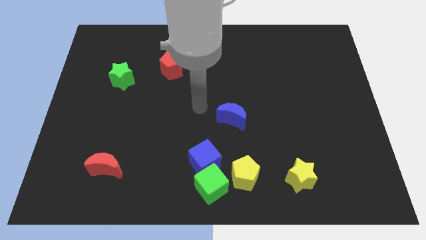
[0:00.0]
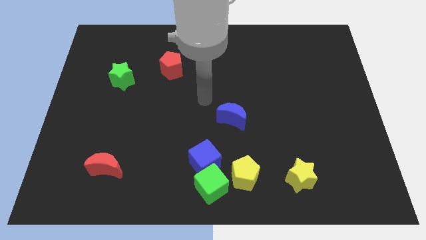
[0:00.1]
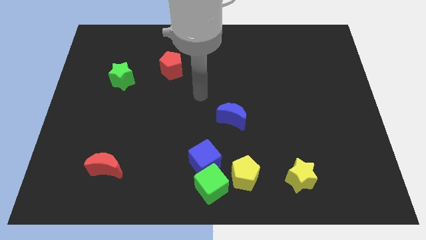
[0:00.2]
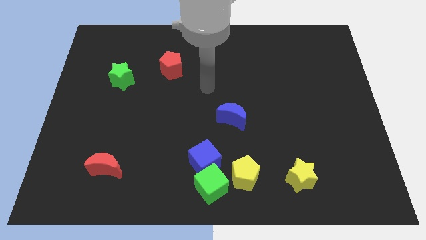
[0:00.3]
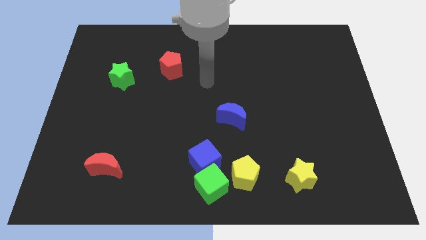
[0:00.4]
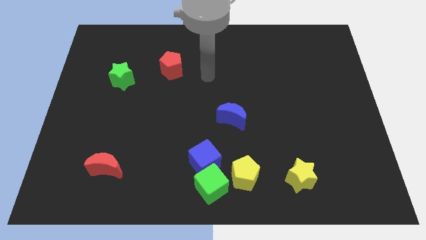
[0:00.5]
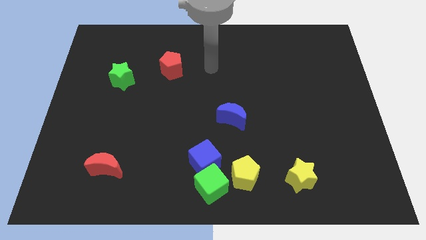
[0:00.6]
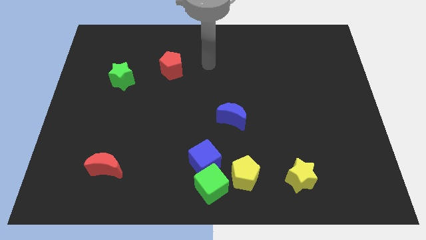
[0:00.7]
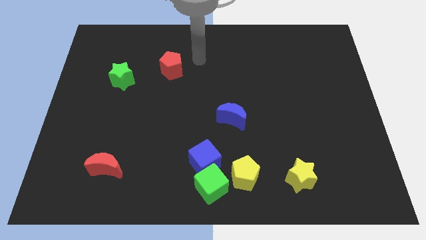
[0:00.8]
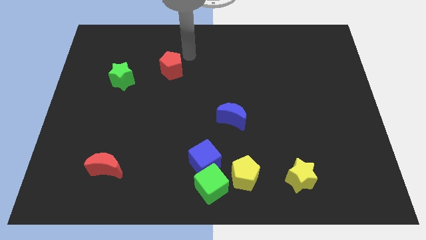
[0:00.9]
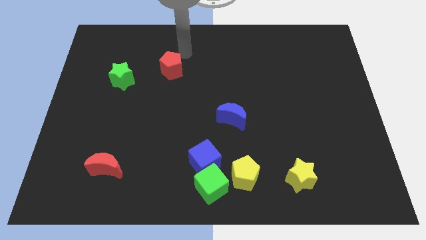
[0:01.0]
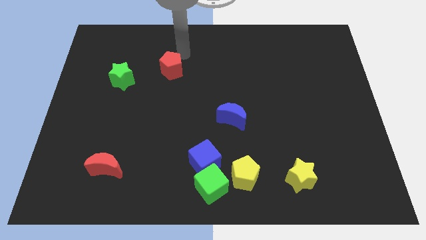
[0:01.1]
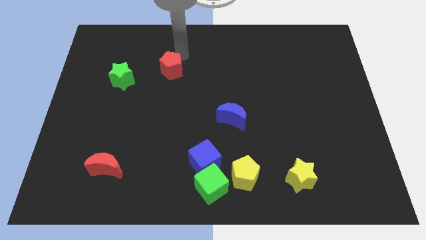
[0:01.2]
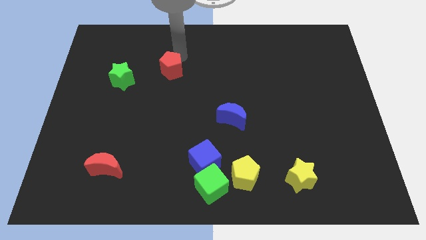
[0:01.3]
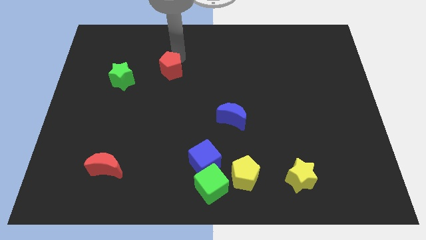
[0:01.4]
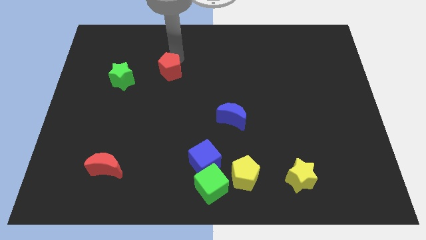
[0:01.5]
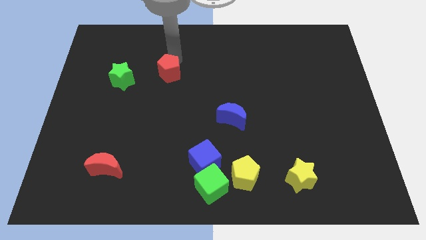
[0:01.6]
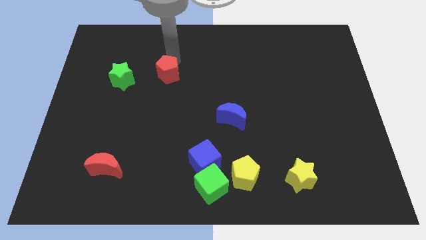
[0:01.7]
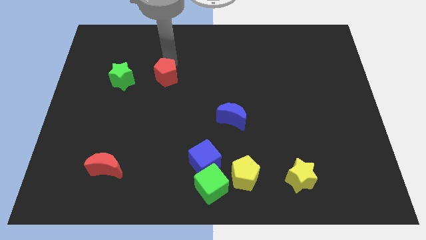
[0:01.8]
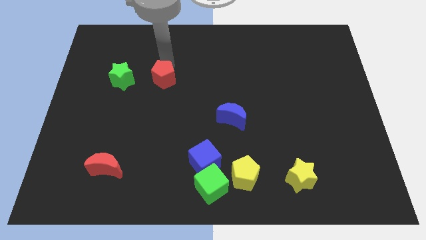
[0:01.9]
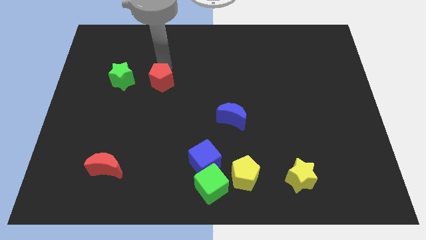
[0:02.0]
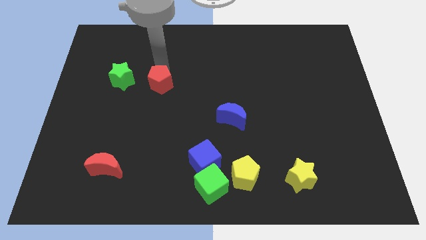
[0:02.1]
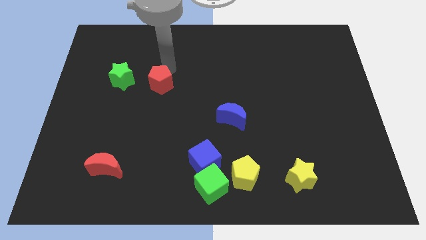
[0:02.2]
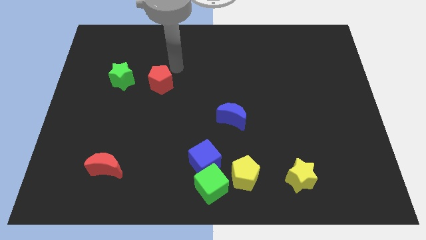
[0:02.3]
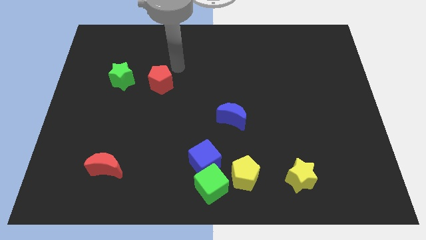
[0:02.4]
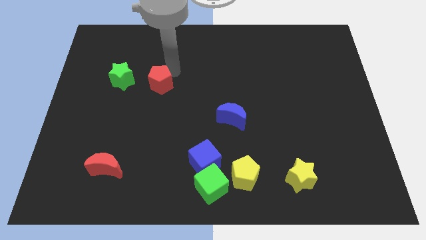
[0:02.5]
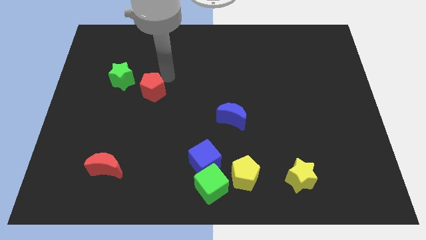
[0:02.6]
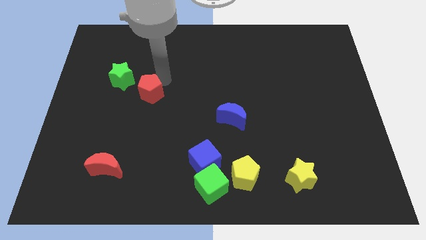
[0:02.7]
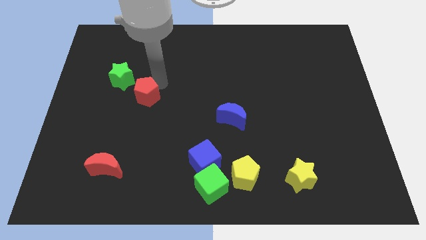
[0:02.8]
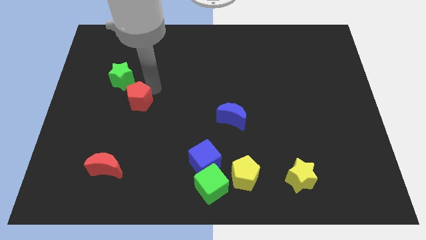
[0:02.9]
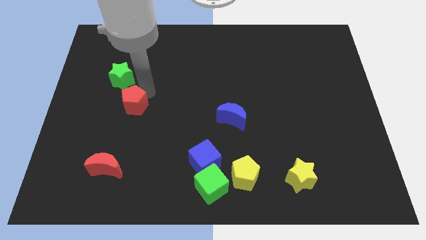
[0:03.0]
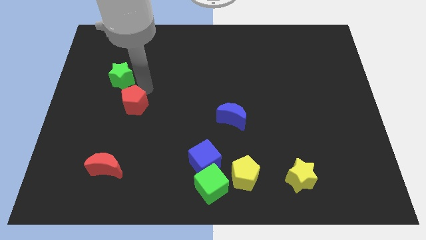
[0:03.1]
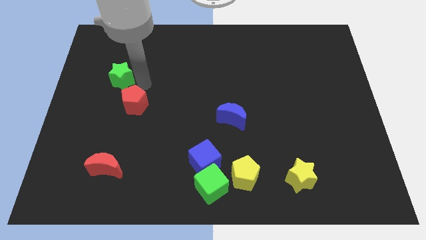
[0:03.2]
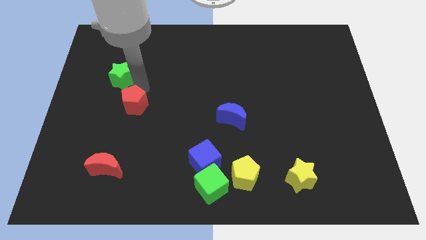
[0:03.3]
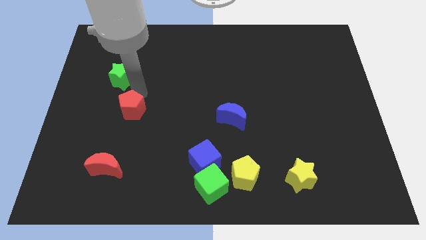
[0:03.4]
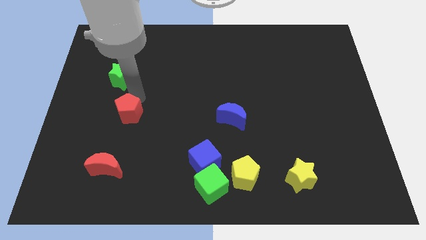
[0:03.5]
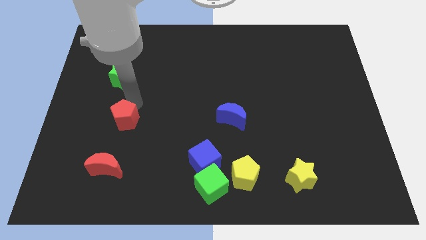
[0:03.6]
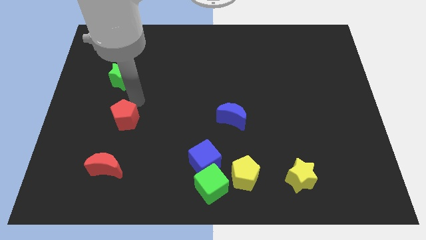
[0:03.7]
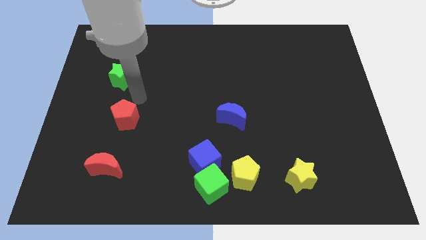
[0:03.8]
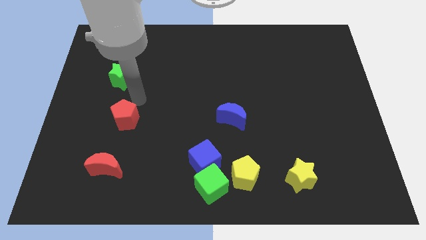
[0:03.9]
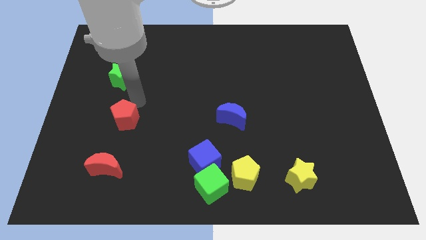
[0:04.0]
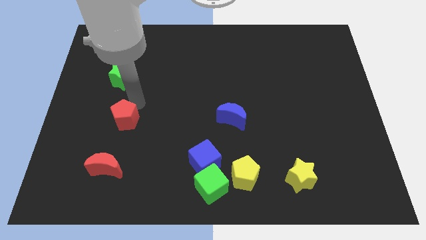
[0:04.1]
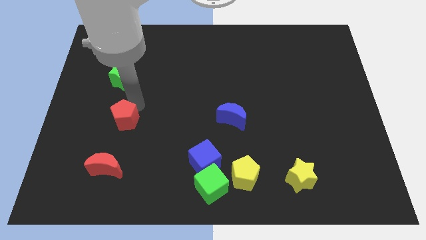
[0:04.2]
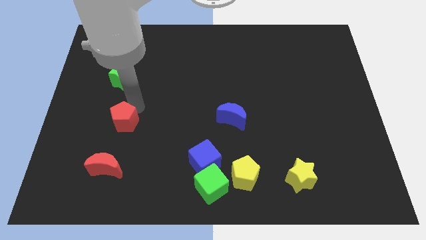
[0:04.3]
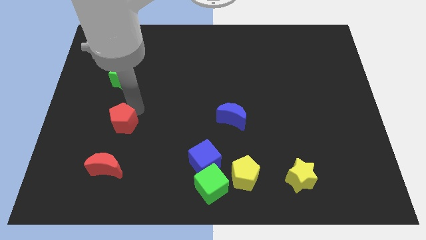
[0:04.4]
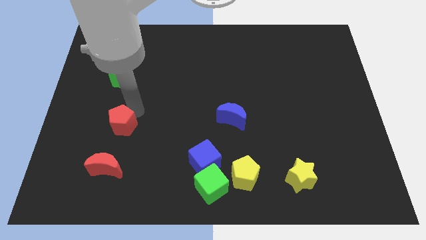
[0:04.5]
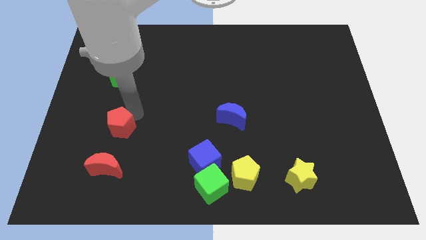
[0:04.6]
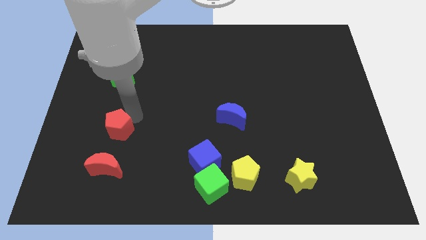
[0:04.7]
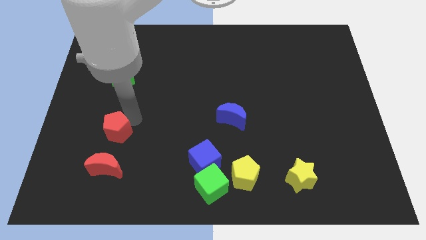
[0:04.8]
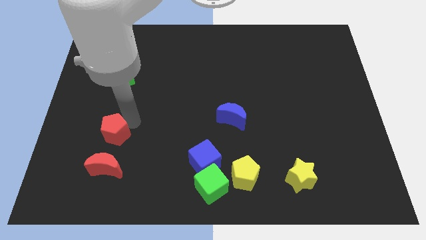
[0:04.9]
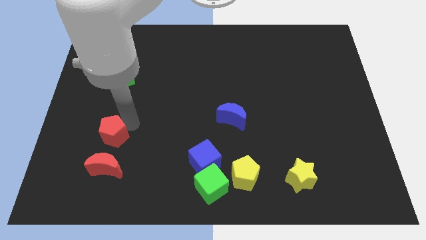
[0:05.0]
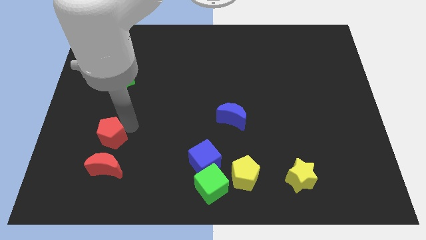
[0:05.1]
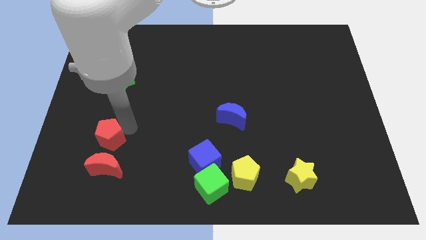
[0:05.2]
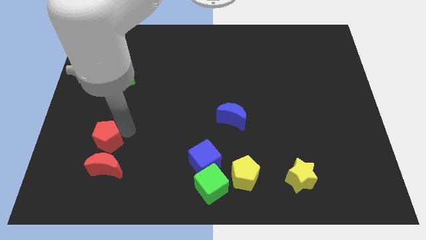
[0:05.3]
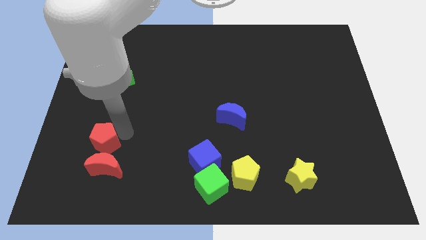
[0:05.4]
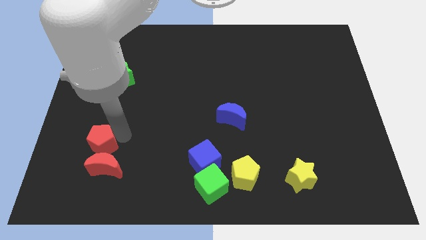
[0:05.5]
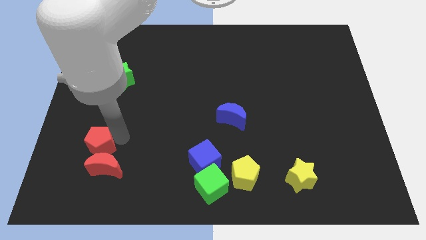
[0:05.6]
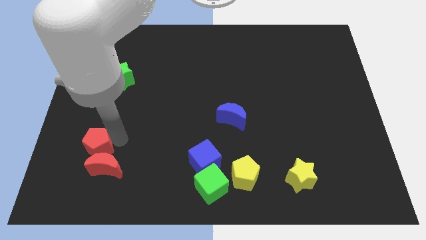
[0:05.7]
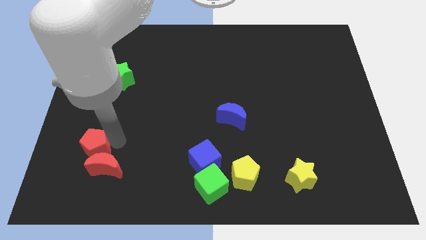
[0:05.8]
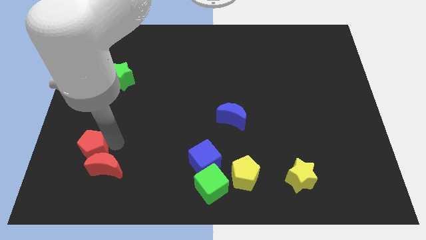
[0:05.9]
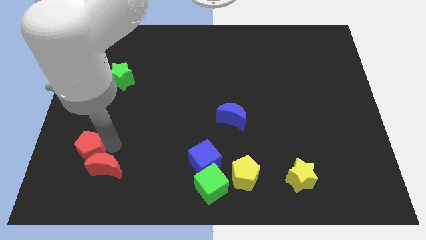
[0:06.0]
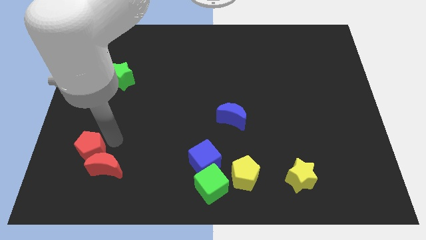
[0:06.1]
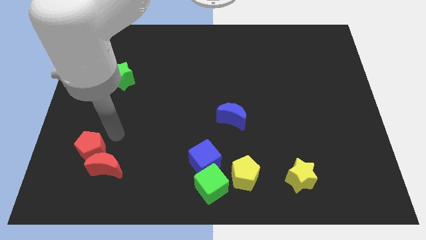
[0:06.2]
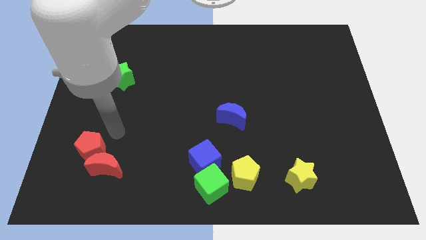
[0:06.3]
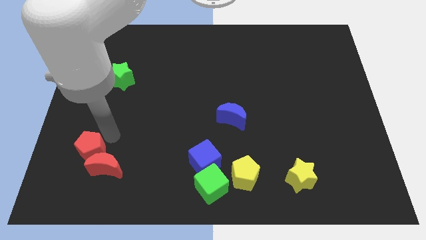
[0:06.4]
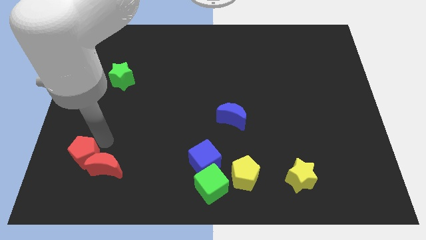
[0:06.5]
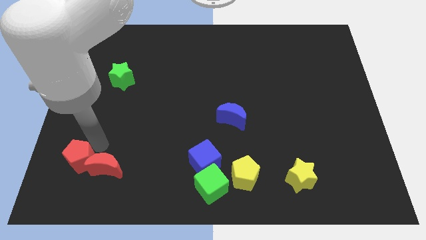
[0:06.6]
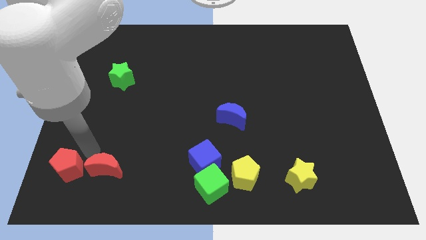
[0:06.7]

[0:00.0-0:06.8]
push the red pentagon to the bottom left of the board
